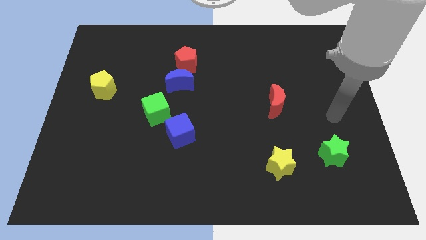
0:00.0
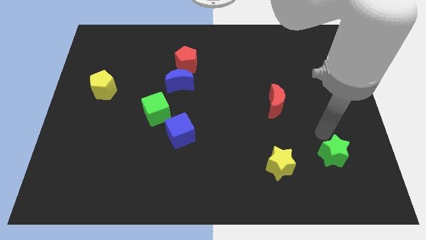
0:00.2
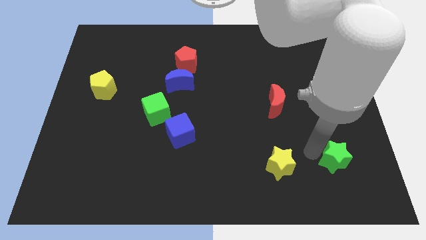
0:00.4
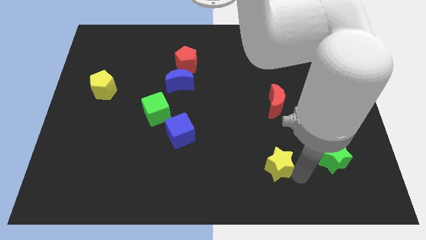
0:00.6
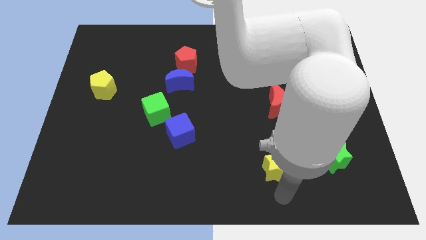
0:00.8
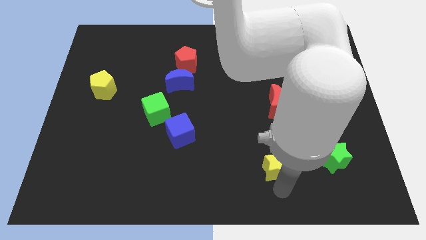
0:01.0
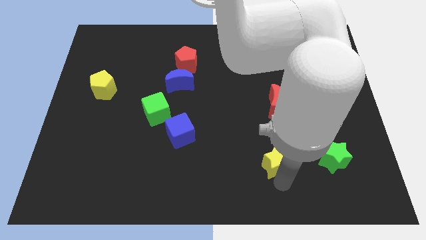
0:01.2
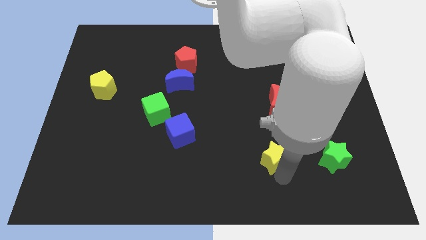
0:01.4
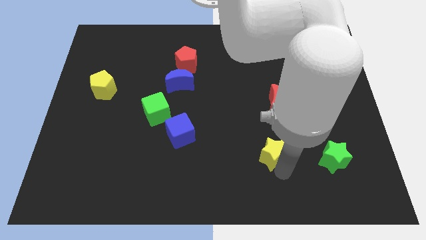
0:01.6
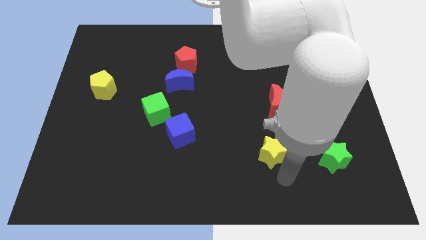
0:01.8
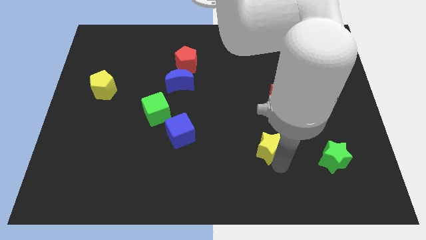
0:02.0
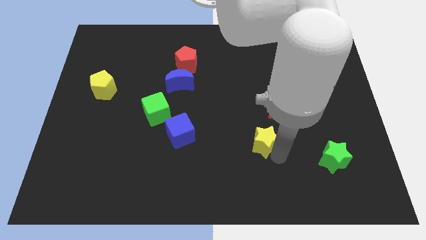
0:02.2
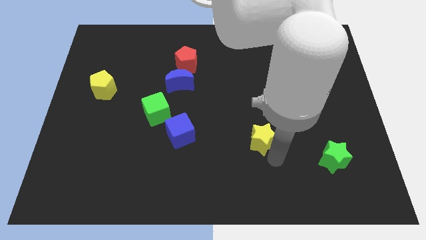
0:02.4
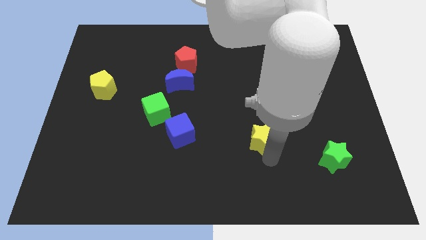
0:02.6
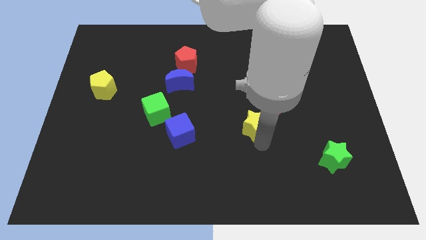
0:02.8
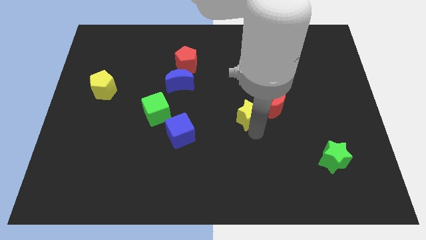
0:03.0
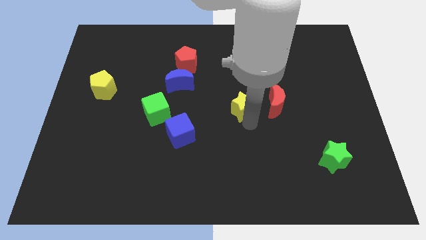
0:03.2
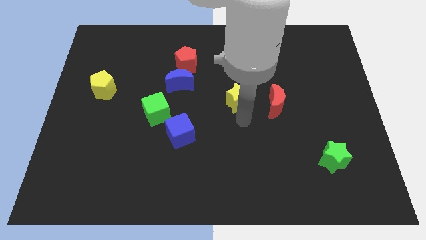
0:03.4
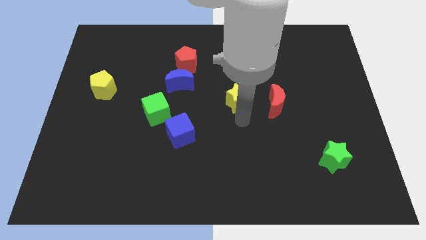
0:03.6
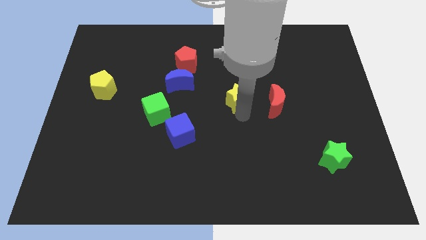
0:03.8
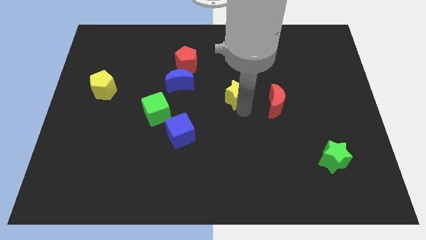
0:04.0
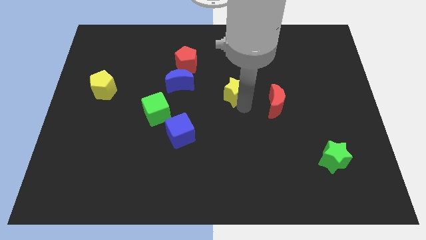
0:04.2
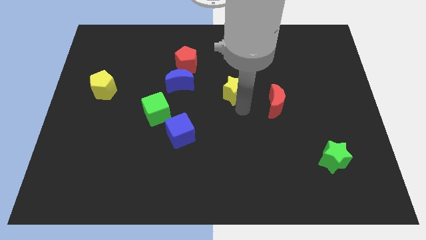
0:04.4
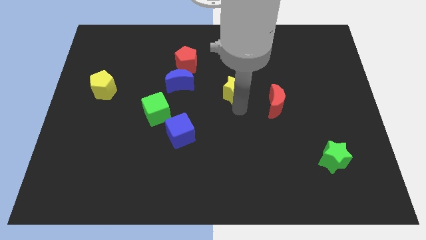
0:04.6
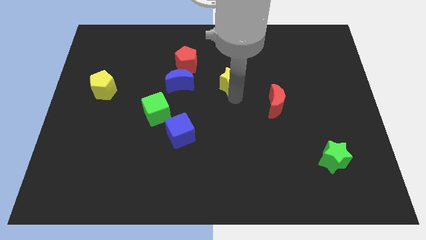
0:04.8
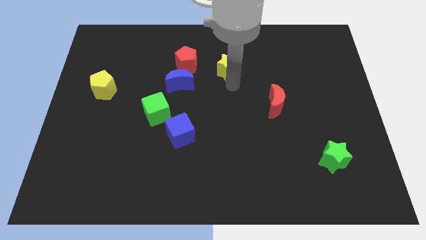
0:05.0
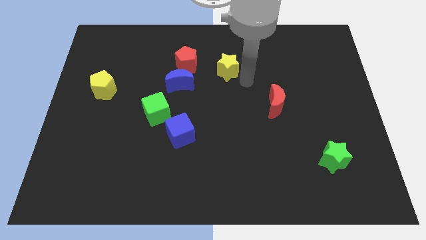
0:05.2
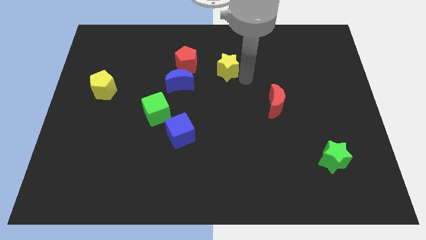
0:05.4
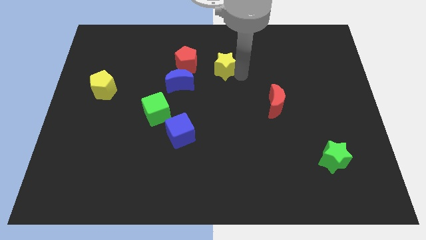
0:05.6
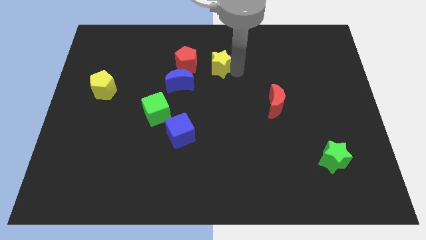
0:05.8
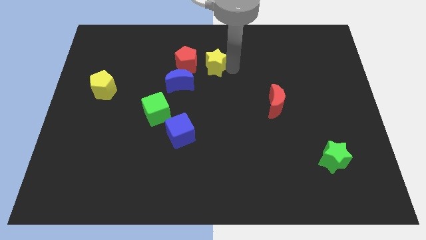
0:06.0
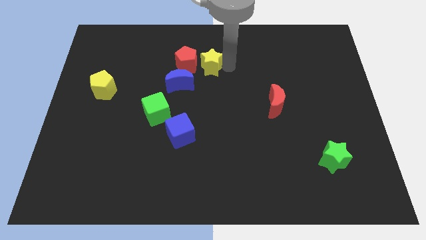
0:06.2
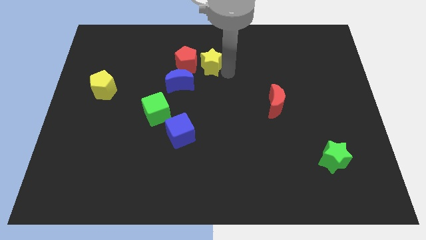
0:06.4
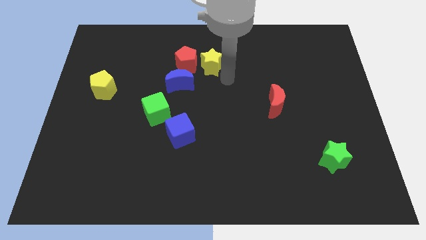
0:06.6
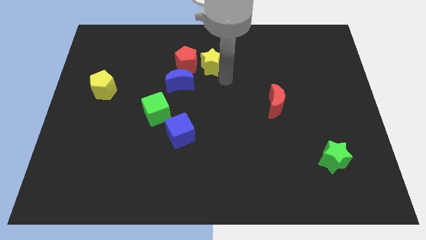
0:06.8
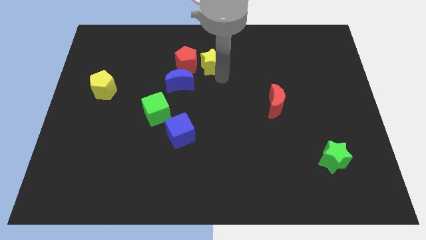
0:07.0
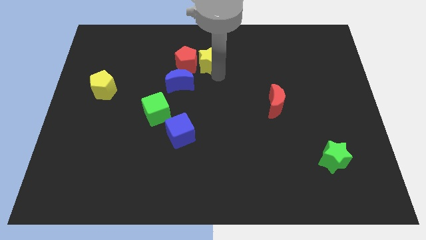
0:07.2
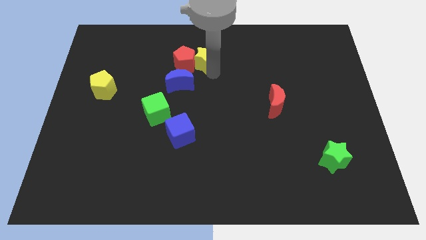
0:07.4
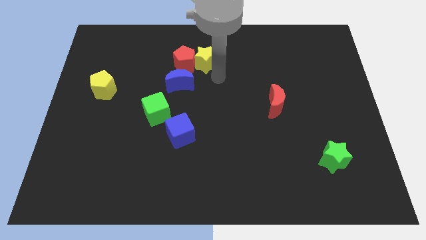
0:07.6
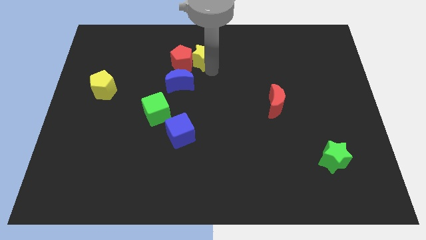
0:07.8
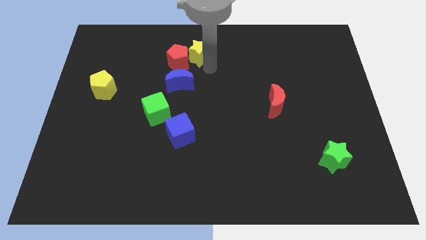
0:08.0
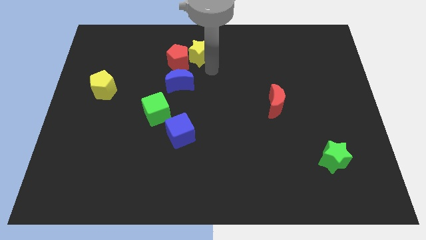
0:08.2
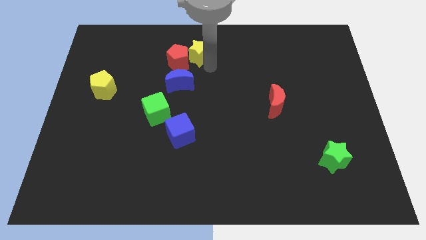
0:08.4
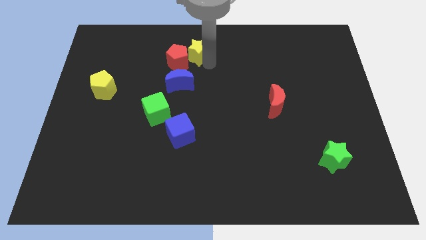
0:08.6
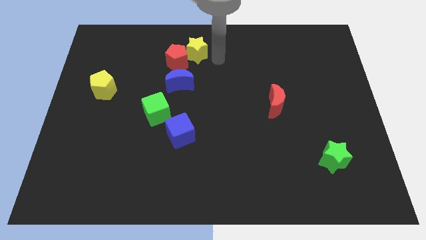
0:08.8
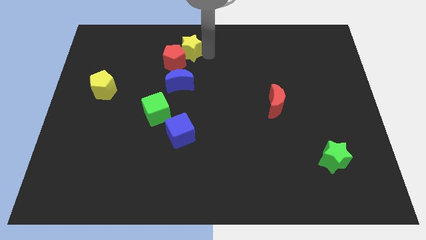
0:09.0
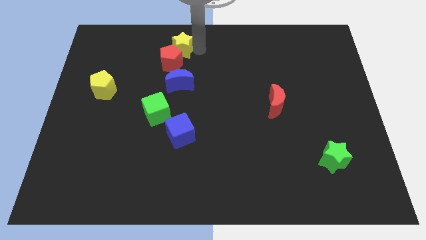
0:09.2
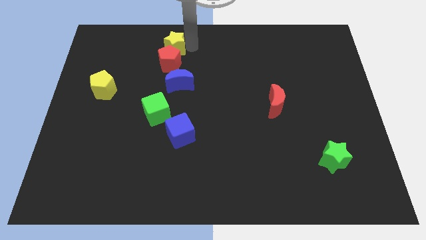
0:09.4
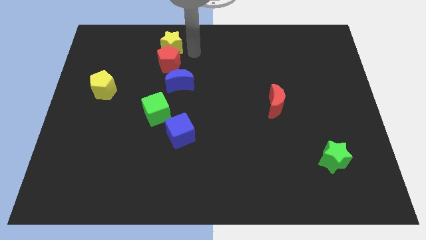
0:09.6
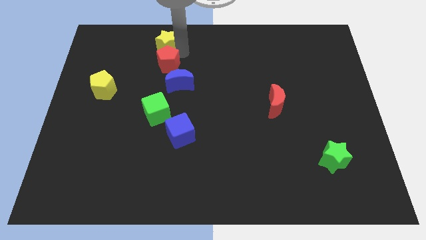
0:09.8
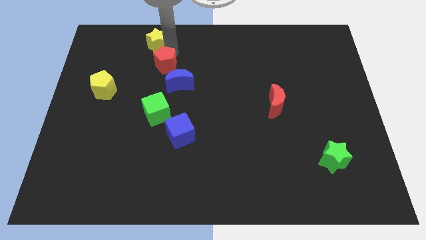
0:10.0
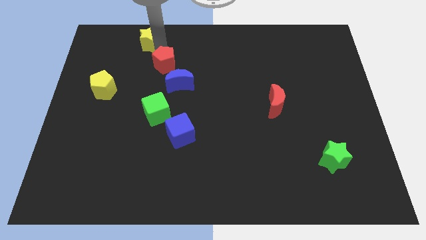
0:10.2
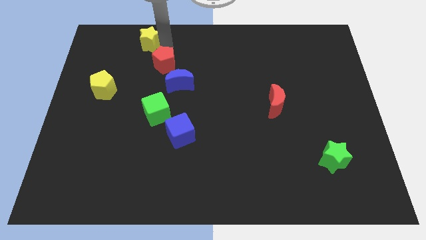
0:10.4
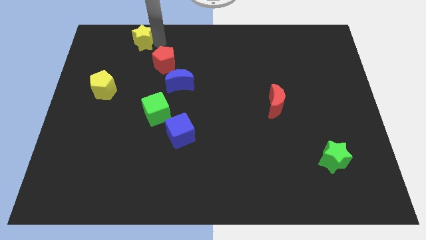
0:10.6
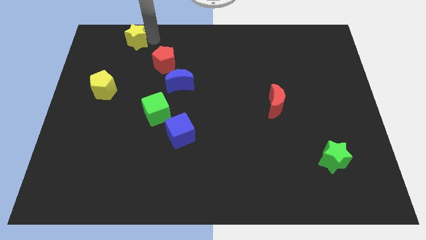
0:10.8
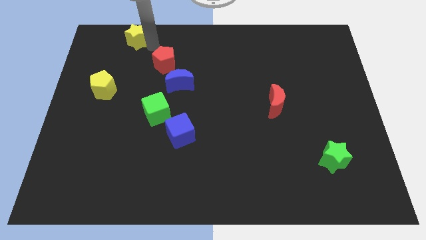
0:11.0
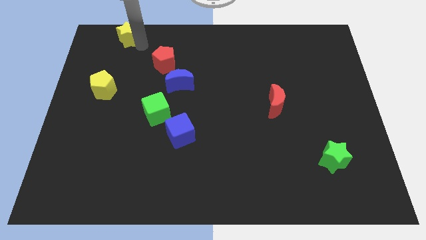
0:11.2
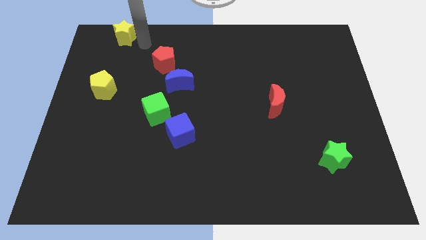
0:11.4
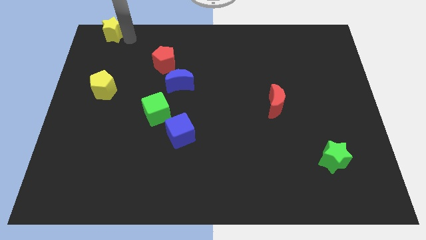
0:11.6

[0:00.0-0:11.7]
slide the yellow star to the upper left corner

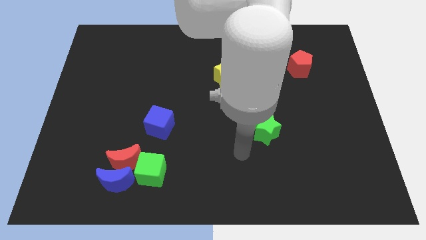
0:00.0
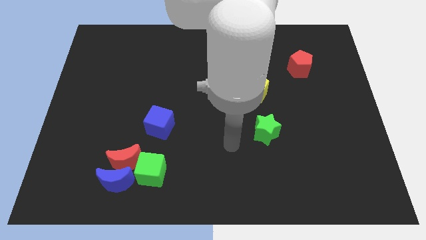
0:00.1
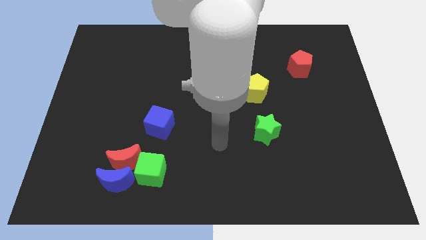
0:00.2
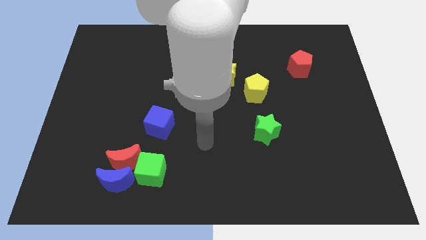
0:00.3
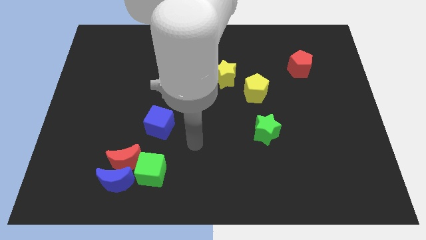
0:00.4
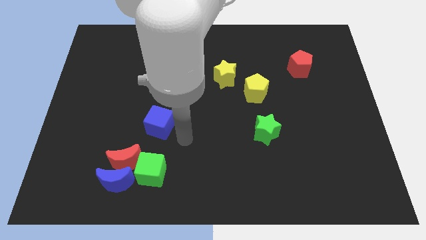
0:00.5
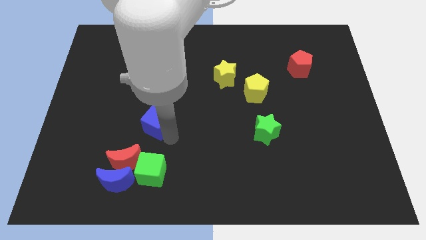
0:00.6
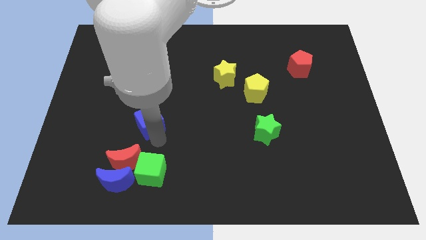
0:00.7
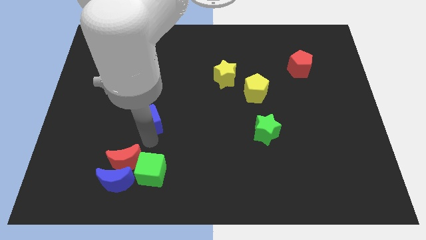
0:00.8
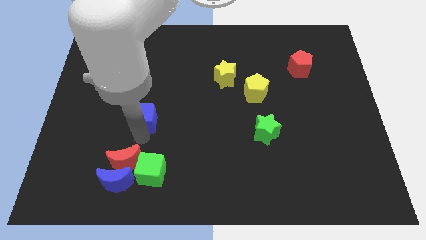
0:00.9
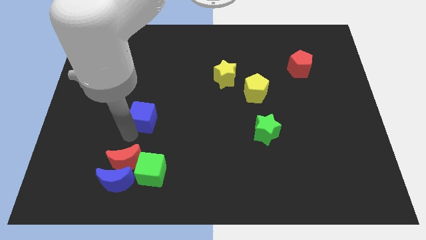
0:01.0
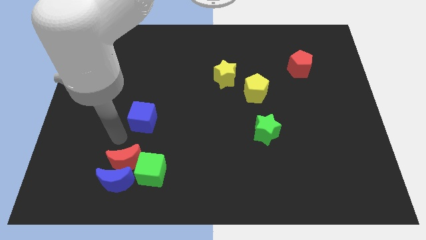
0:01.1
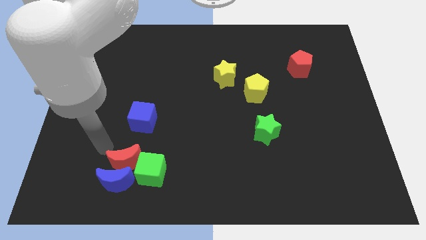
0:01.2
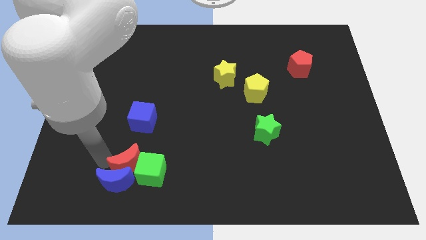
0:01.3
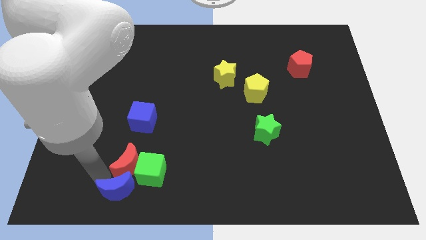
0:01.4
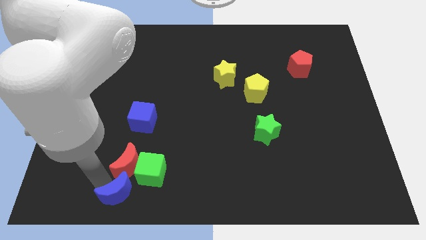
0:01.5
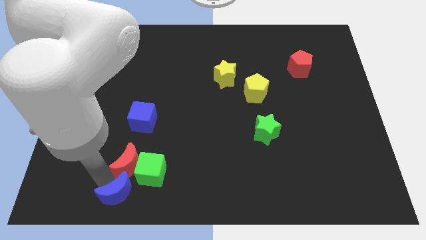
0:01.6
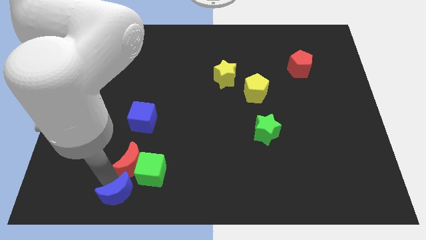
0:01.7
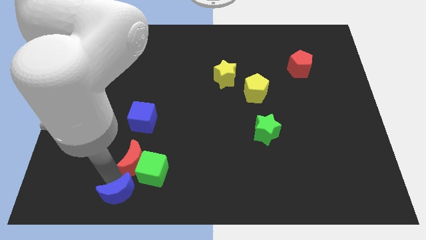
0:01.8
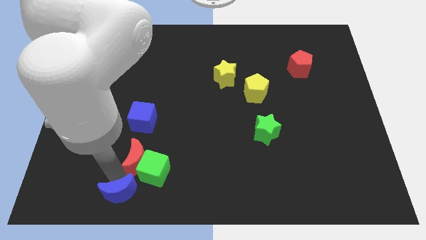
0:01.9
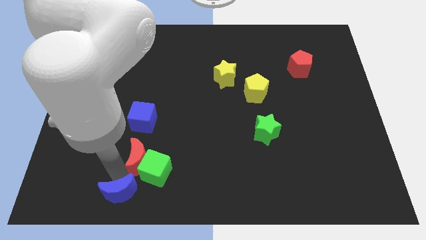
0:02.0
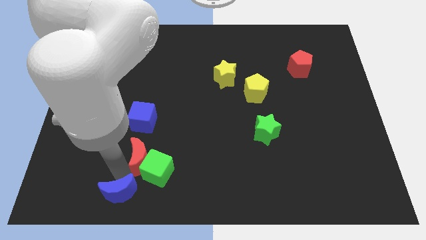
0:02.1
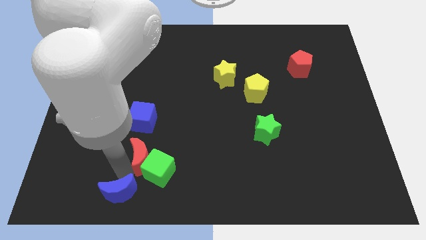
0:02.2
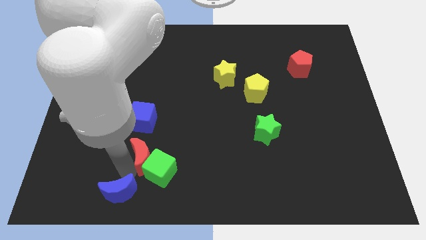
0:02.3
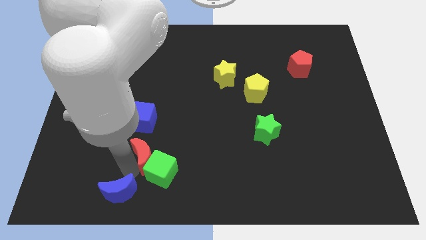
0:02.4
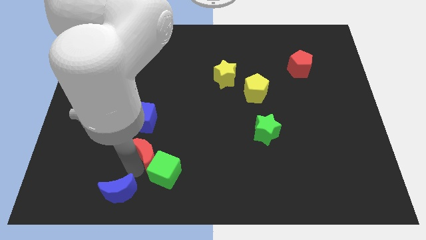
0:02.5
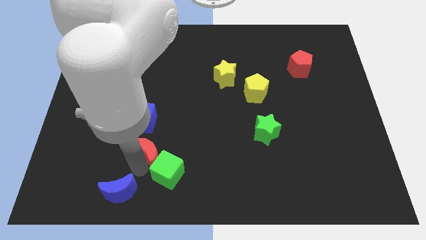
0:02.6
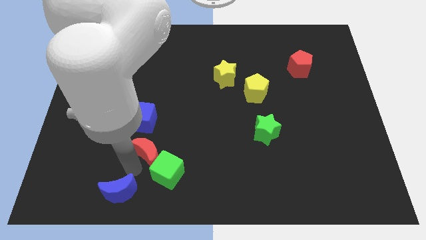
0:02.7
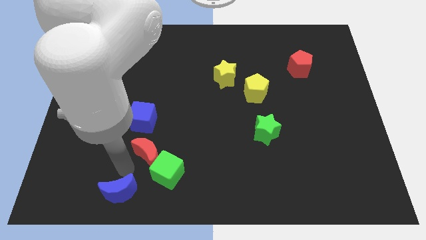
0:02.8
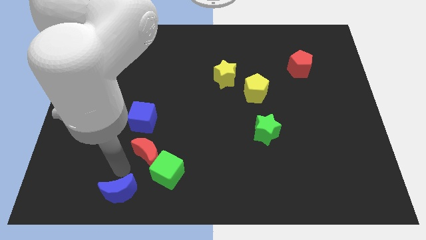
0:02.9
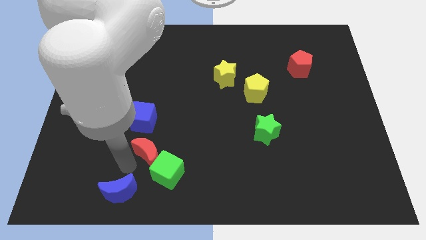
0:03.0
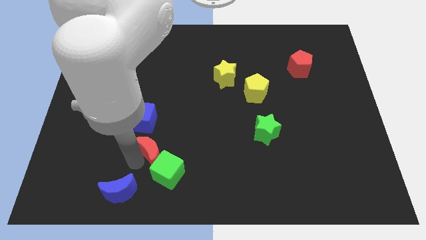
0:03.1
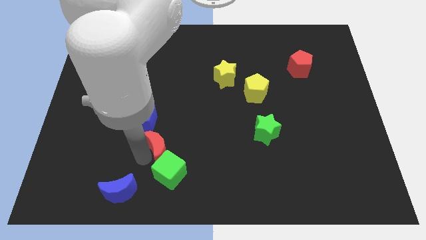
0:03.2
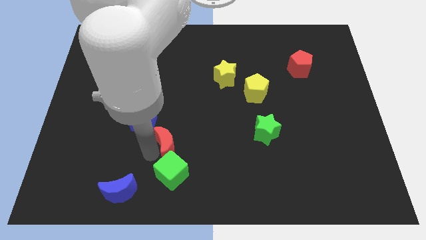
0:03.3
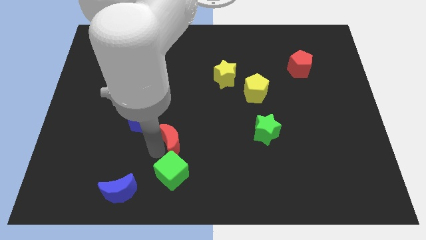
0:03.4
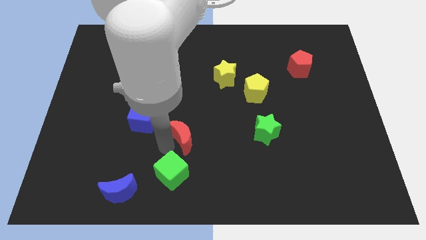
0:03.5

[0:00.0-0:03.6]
put the red moon to the middle
